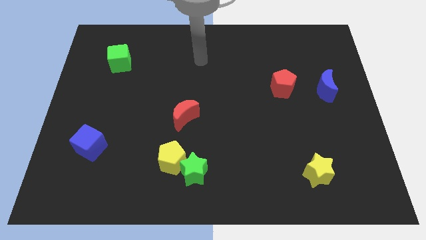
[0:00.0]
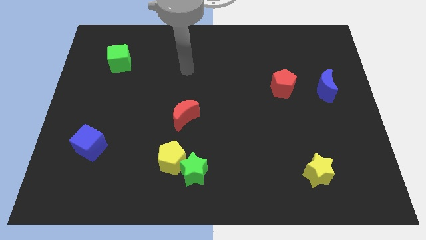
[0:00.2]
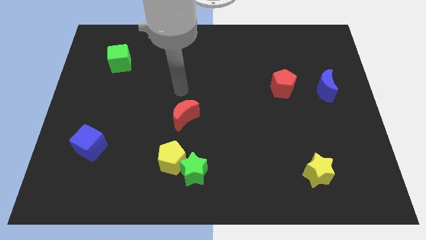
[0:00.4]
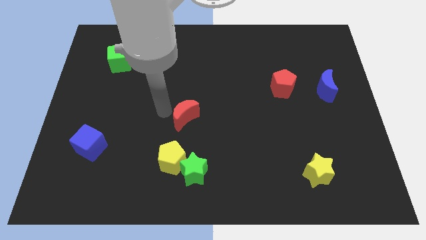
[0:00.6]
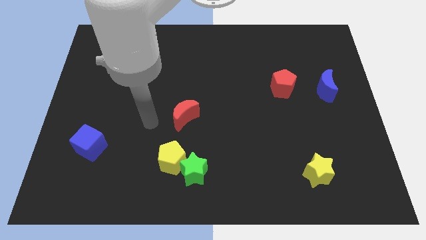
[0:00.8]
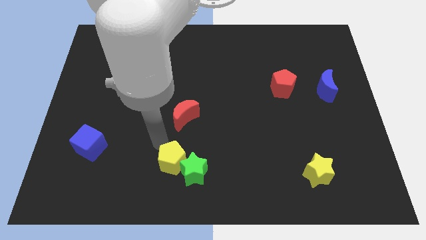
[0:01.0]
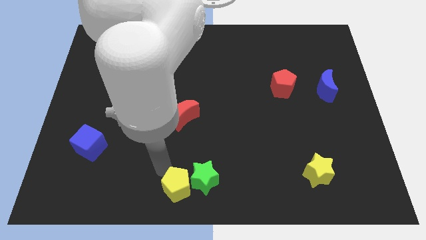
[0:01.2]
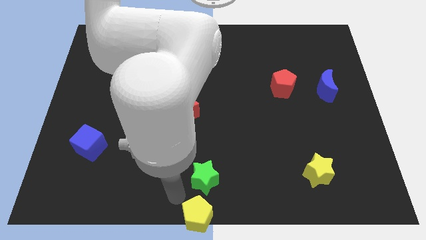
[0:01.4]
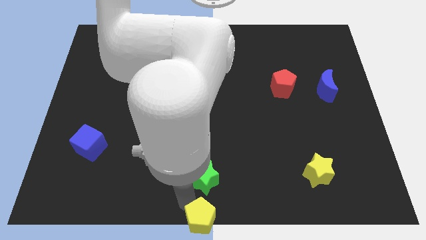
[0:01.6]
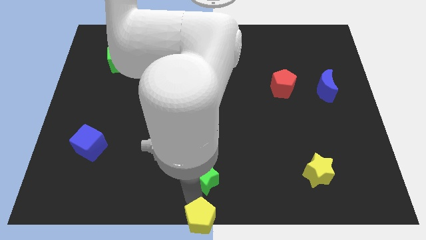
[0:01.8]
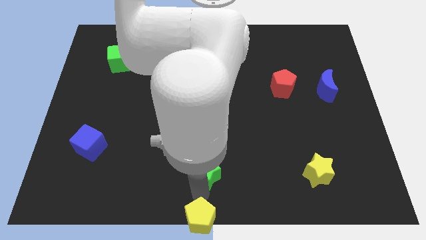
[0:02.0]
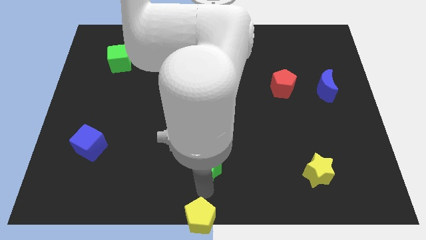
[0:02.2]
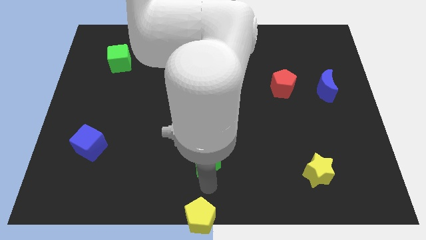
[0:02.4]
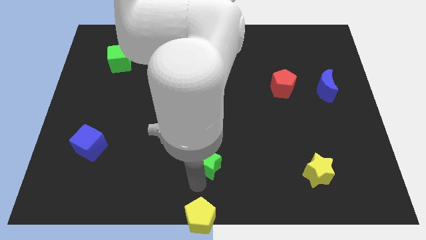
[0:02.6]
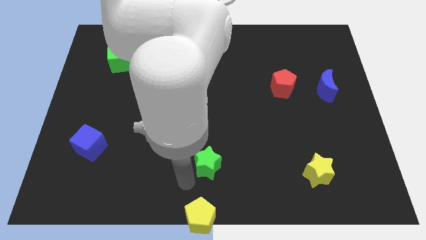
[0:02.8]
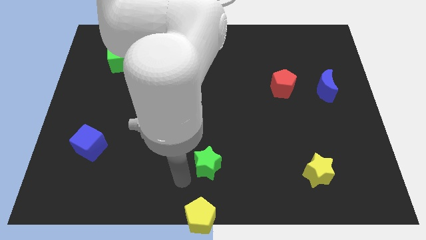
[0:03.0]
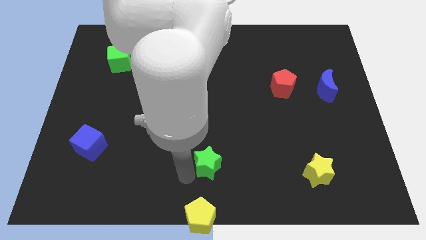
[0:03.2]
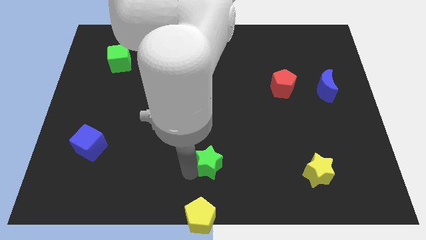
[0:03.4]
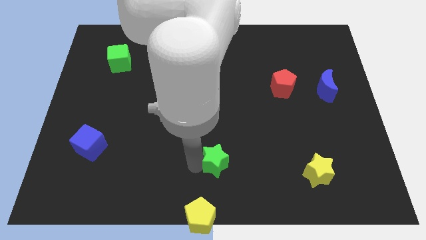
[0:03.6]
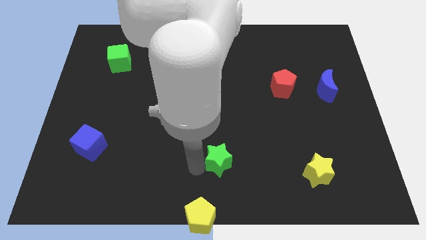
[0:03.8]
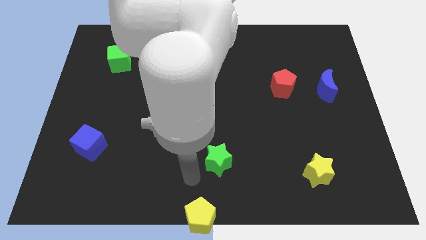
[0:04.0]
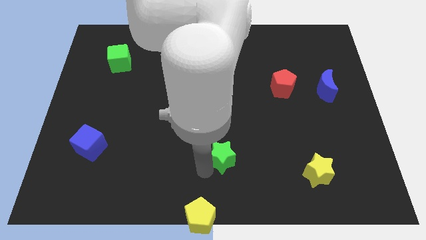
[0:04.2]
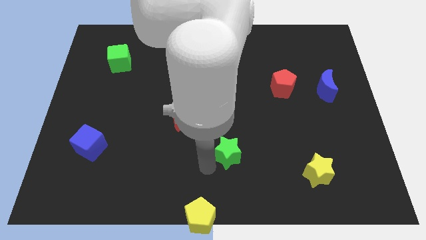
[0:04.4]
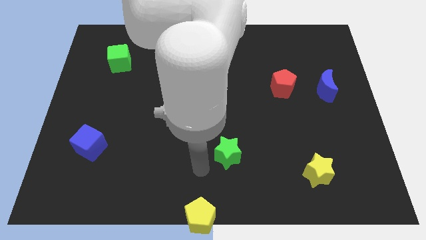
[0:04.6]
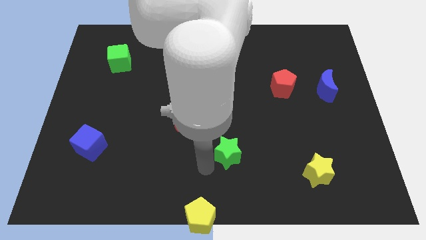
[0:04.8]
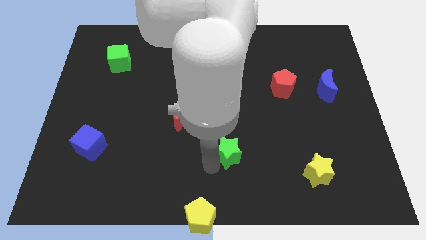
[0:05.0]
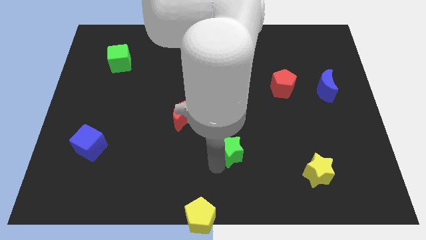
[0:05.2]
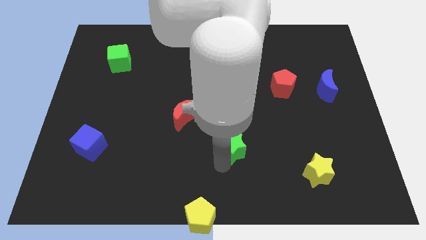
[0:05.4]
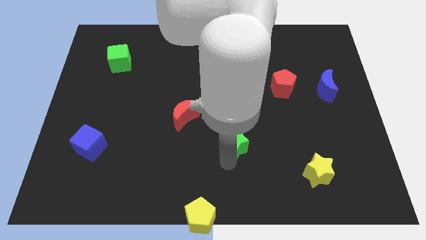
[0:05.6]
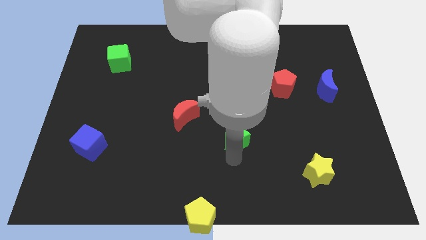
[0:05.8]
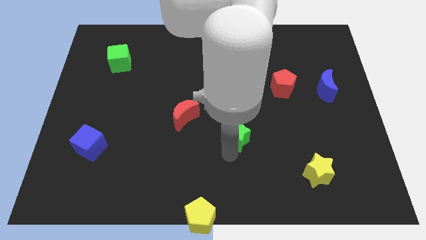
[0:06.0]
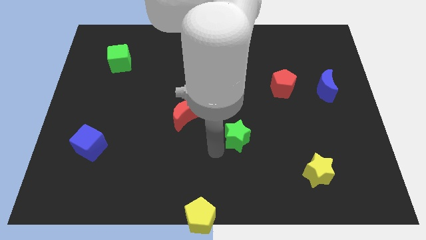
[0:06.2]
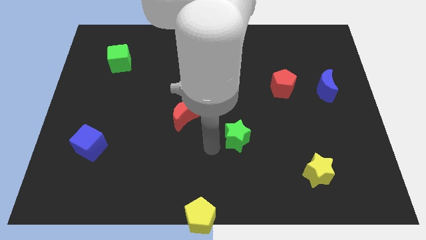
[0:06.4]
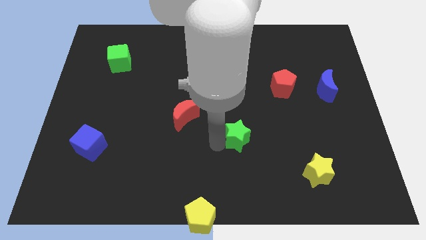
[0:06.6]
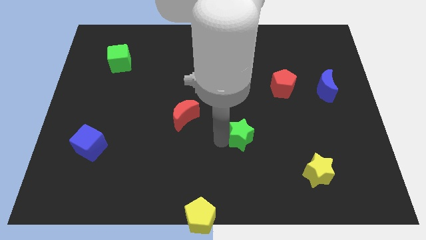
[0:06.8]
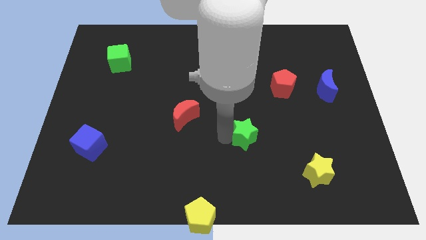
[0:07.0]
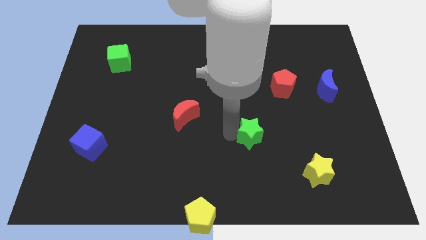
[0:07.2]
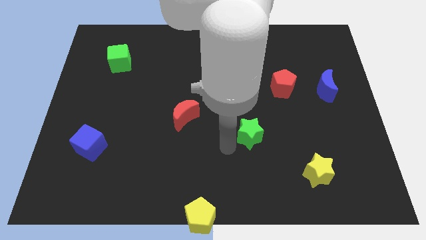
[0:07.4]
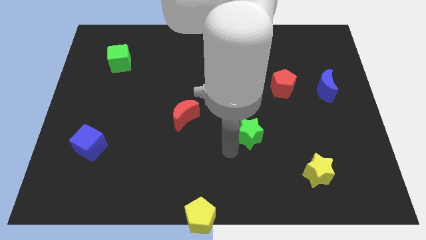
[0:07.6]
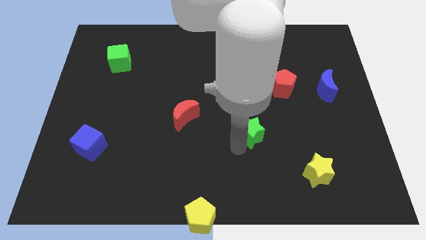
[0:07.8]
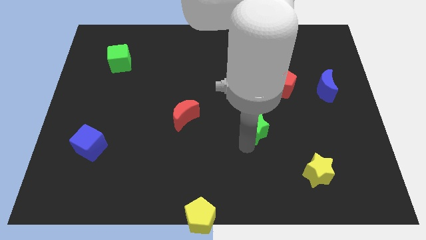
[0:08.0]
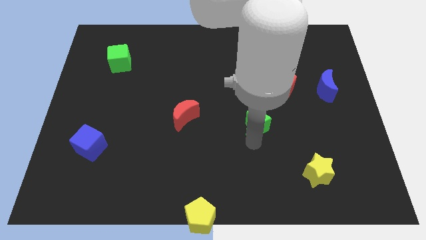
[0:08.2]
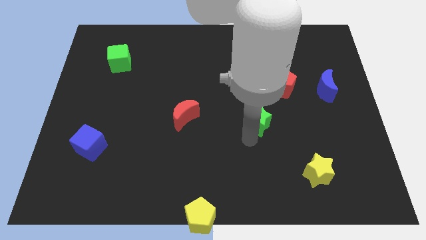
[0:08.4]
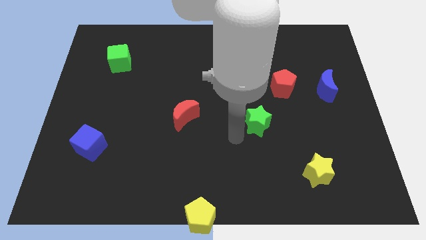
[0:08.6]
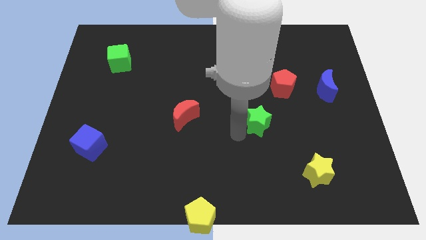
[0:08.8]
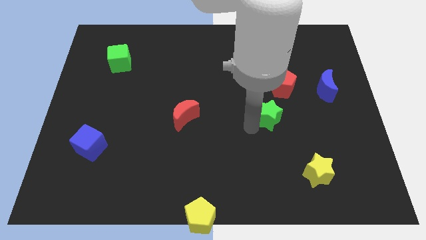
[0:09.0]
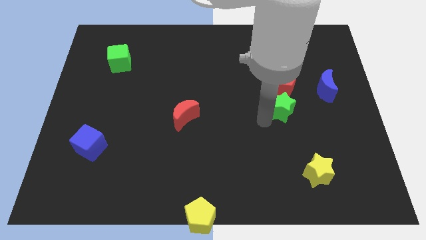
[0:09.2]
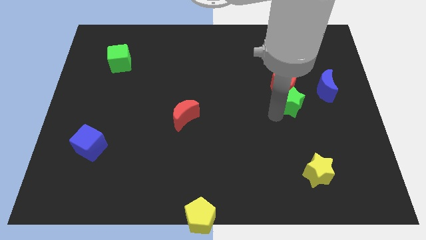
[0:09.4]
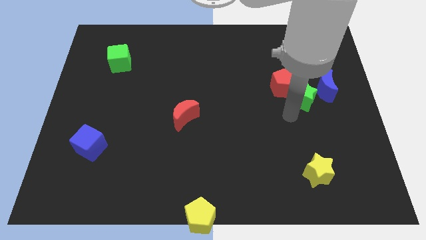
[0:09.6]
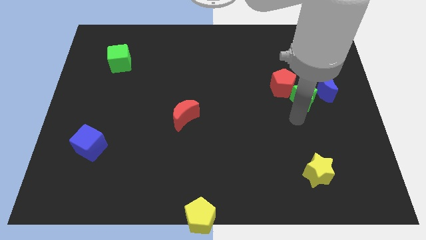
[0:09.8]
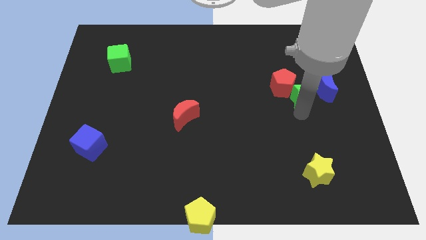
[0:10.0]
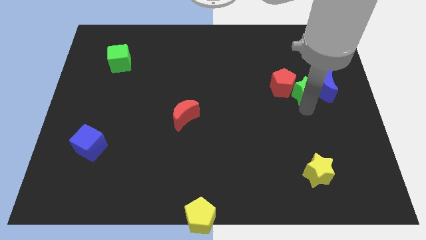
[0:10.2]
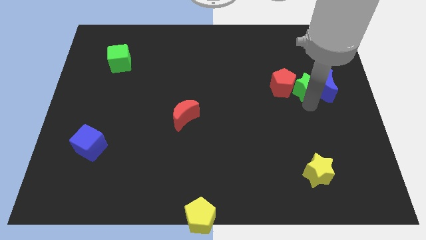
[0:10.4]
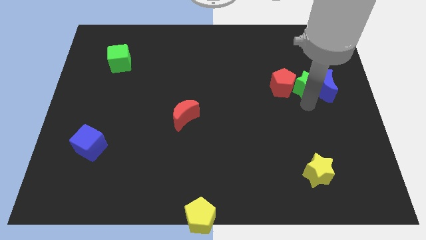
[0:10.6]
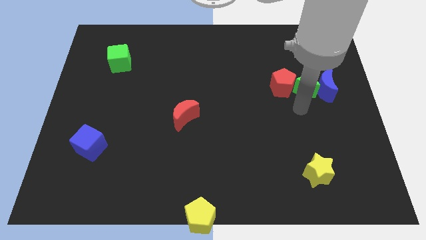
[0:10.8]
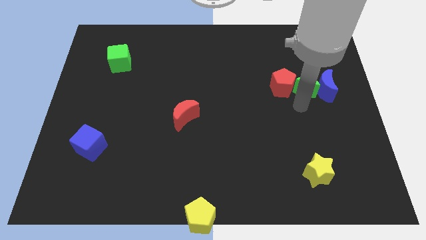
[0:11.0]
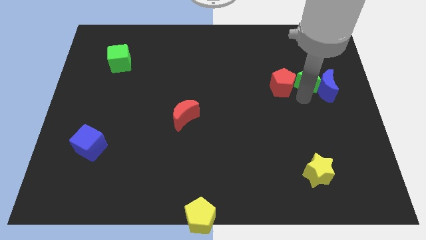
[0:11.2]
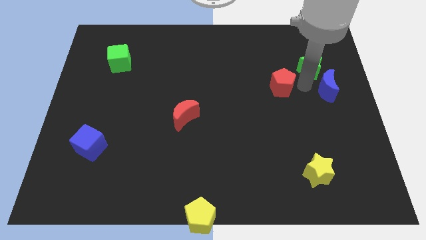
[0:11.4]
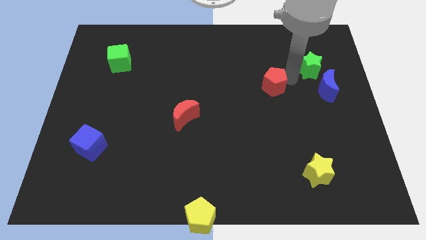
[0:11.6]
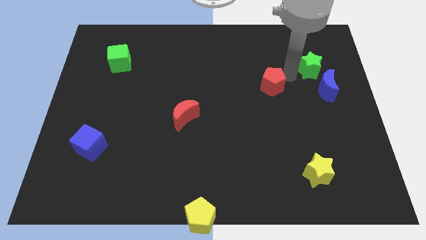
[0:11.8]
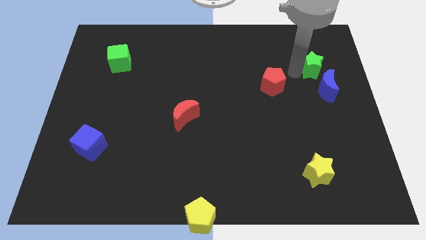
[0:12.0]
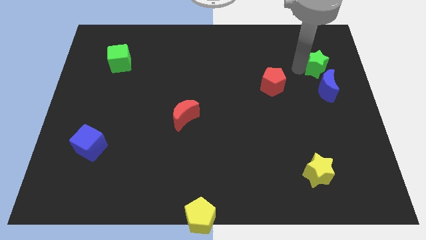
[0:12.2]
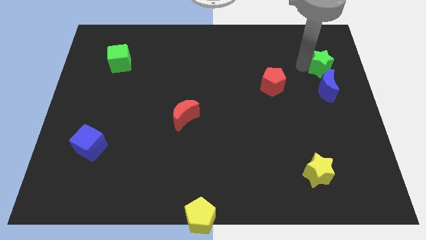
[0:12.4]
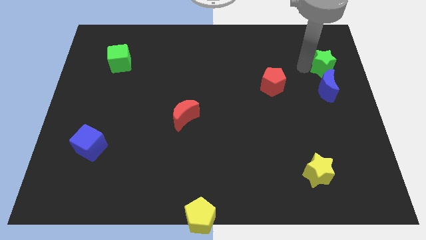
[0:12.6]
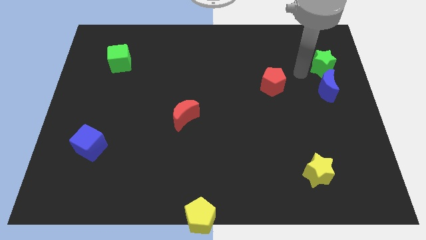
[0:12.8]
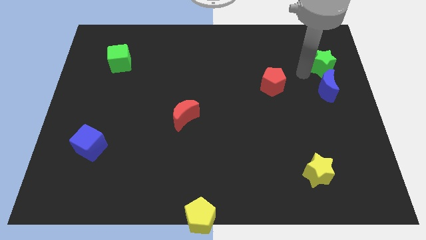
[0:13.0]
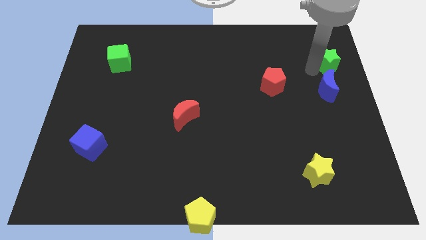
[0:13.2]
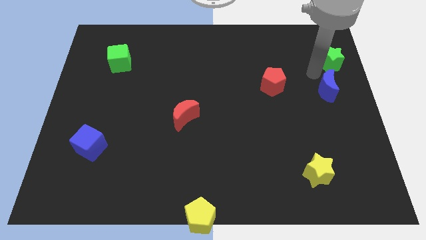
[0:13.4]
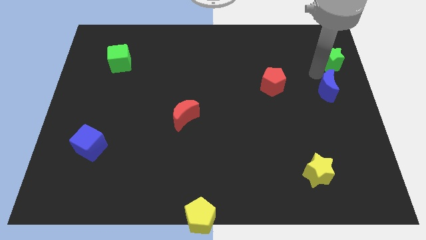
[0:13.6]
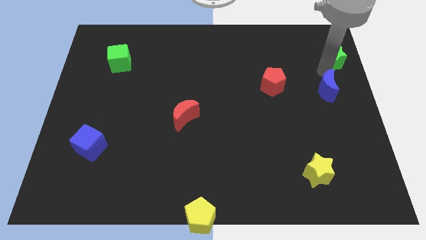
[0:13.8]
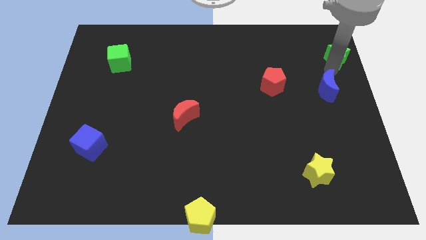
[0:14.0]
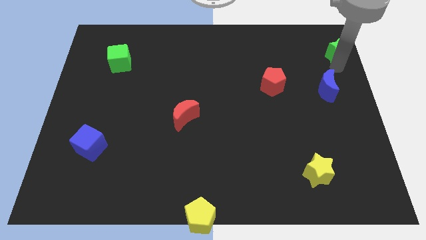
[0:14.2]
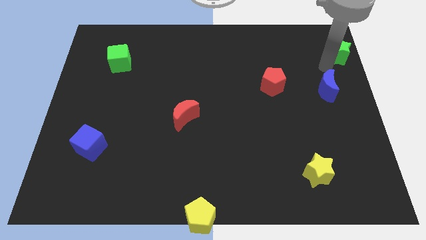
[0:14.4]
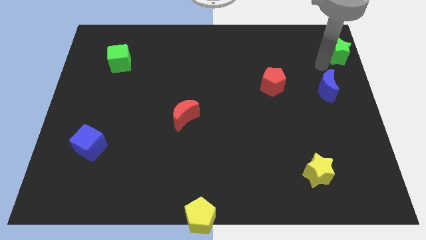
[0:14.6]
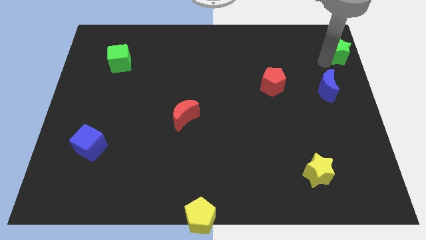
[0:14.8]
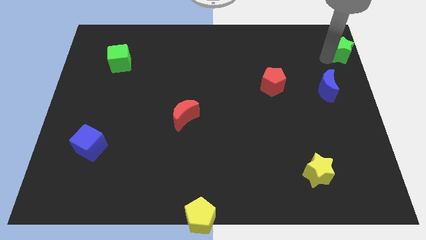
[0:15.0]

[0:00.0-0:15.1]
move the green star to the top right of the board
